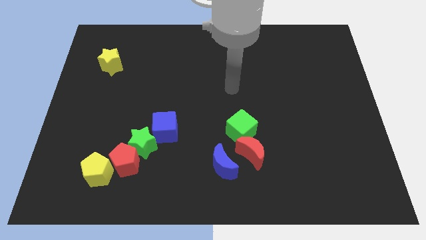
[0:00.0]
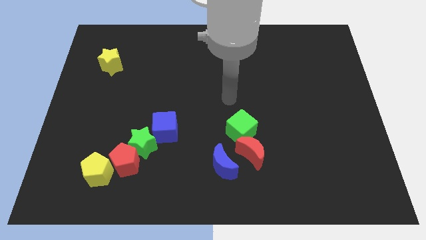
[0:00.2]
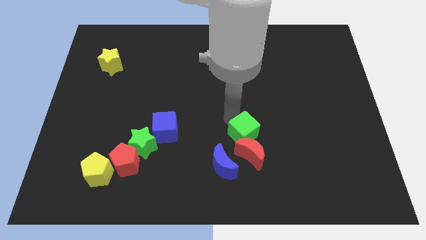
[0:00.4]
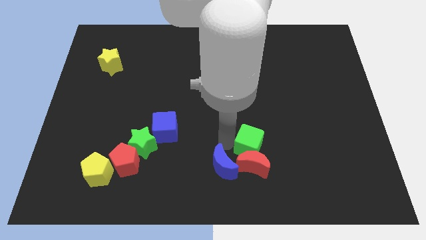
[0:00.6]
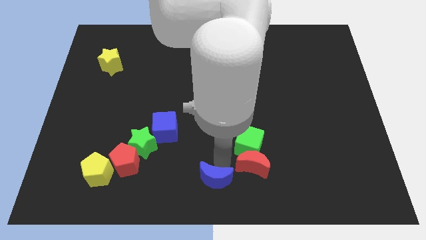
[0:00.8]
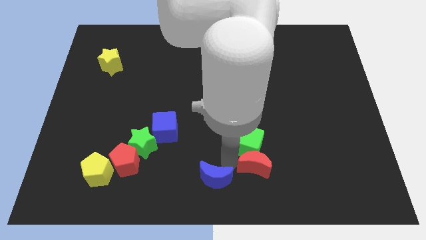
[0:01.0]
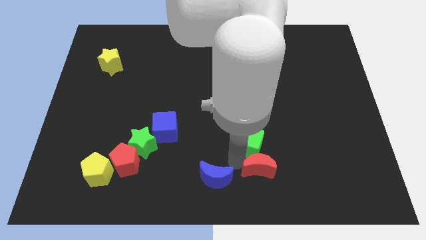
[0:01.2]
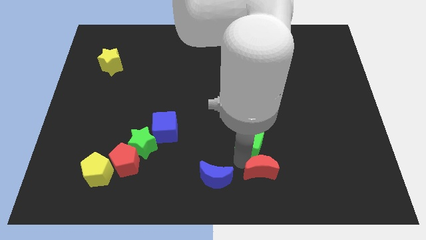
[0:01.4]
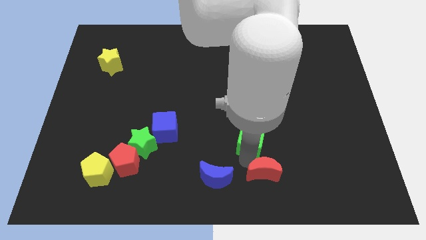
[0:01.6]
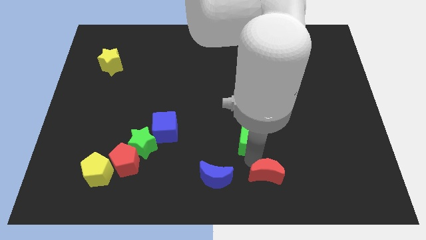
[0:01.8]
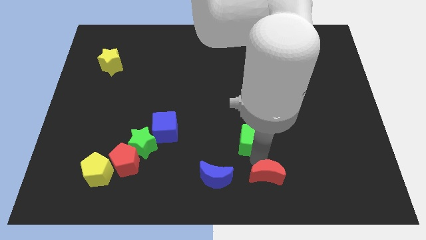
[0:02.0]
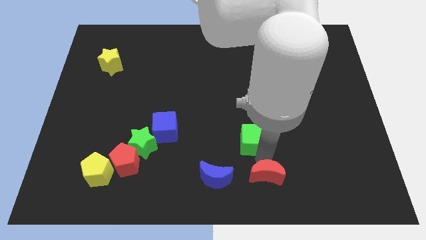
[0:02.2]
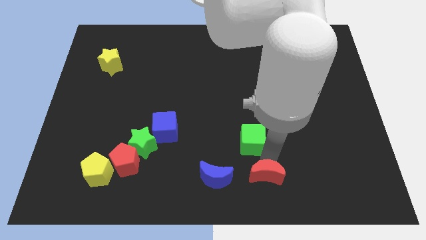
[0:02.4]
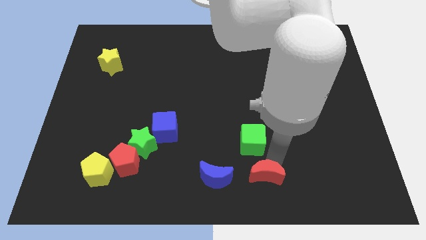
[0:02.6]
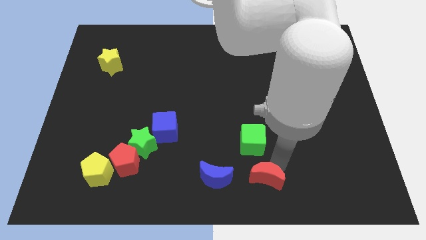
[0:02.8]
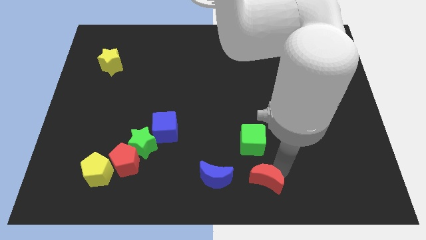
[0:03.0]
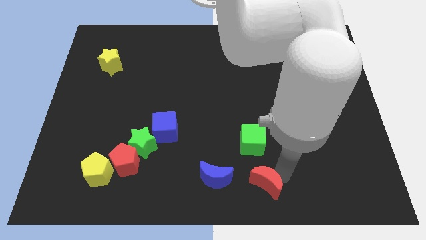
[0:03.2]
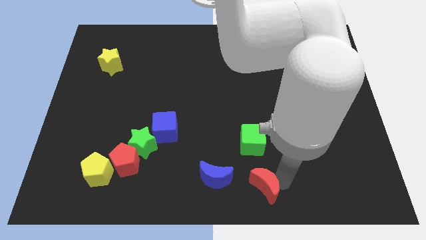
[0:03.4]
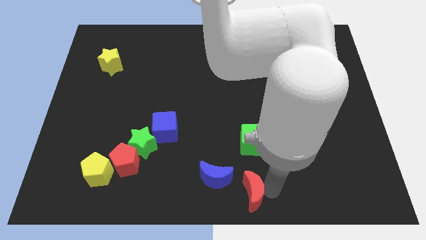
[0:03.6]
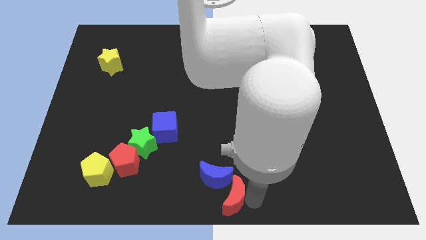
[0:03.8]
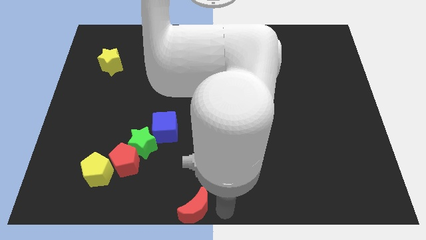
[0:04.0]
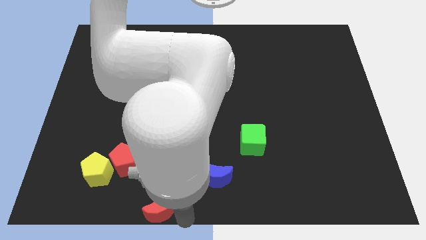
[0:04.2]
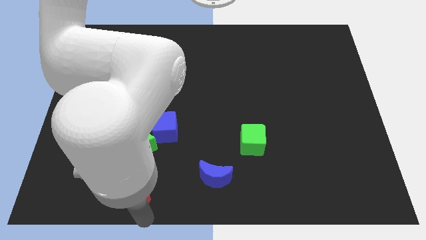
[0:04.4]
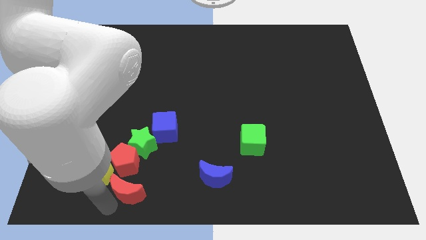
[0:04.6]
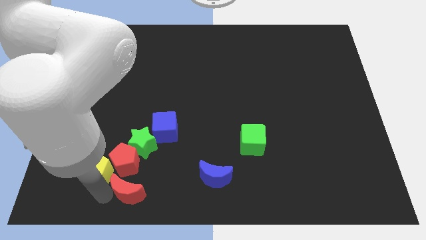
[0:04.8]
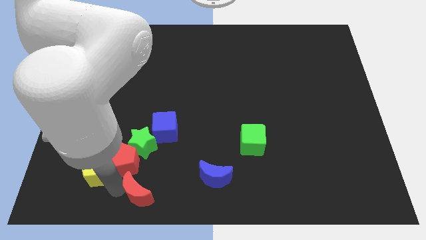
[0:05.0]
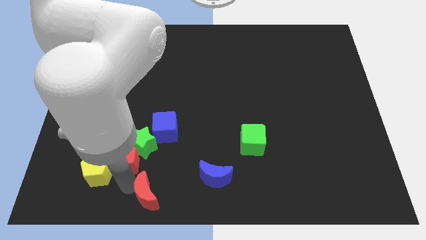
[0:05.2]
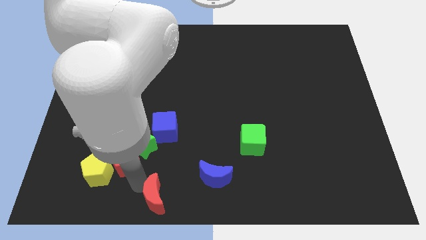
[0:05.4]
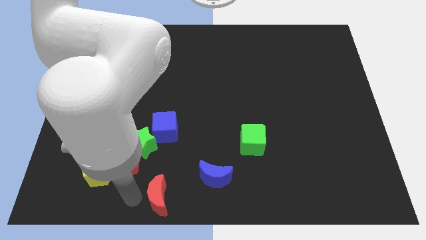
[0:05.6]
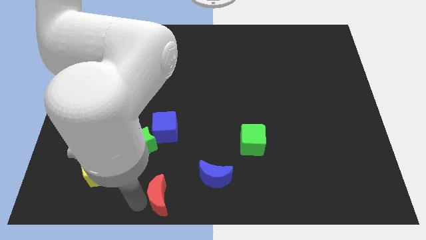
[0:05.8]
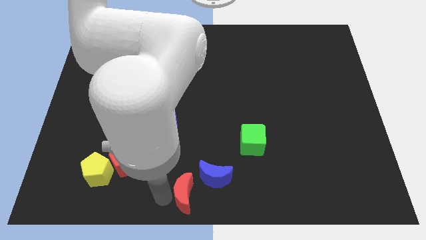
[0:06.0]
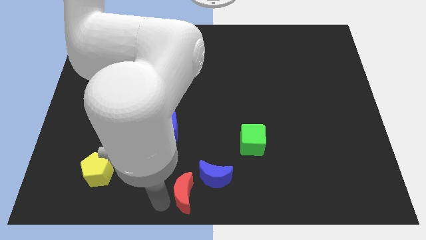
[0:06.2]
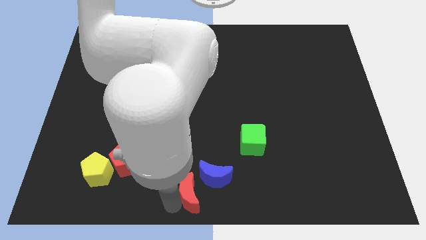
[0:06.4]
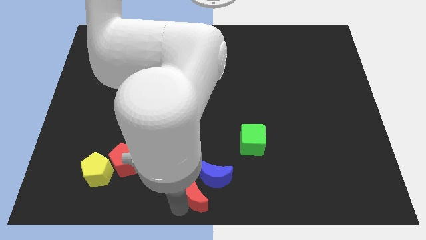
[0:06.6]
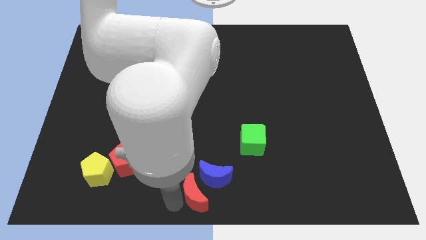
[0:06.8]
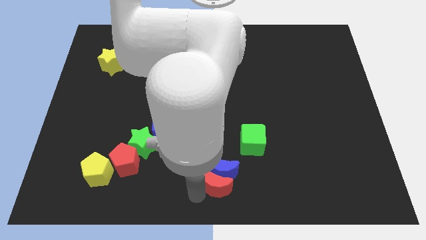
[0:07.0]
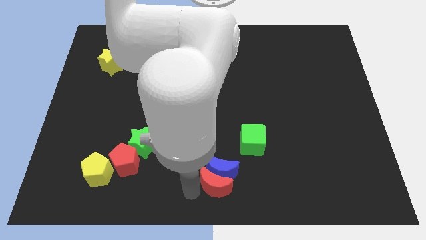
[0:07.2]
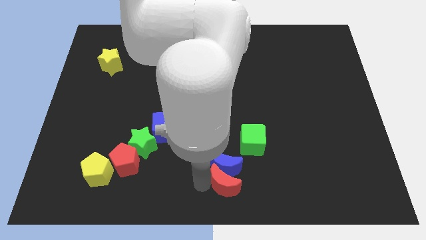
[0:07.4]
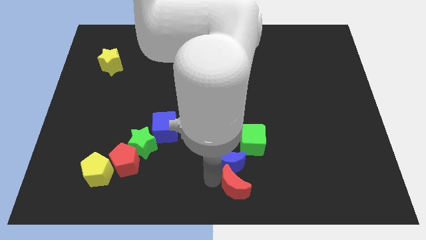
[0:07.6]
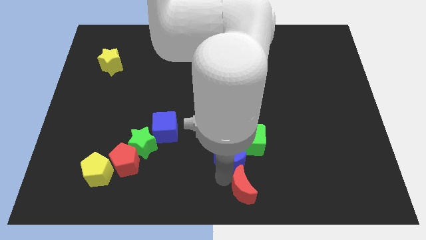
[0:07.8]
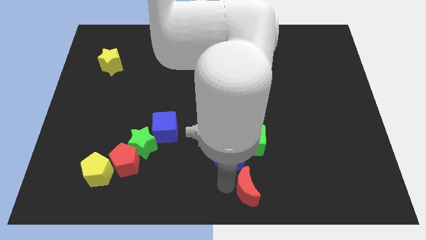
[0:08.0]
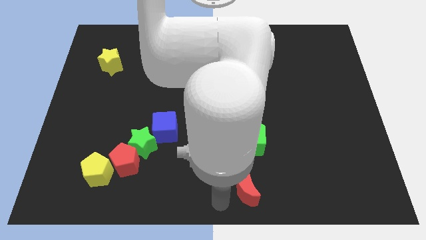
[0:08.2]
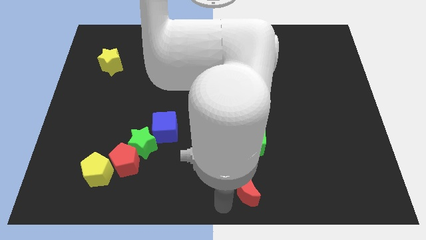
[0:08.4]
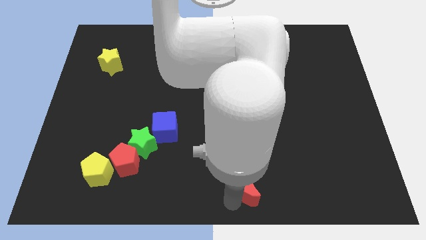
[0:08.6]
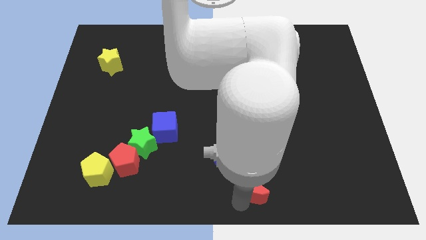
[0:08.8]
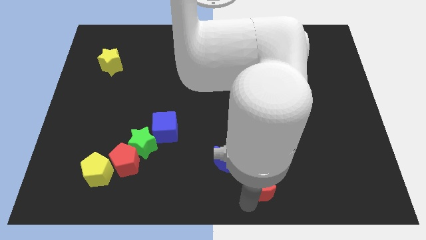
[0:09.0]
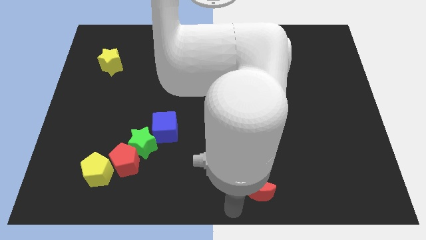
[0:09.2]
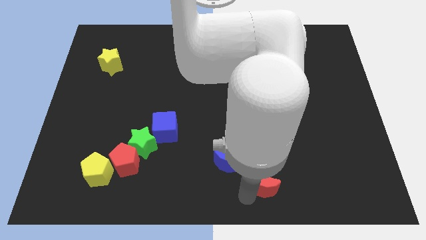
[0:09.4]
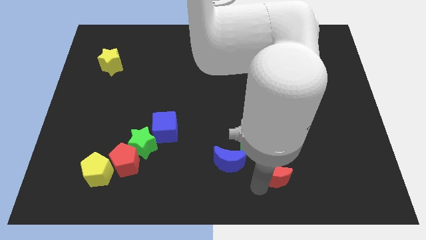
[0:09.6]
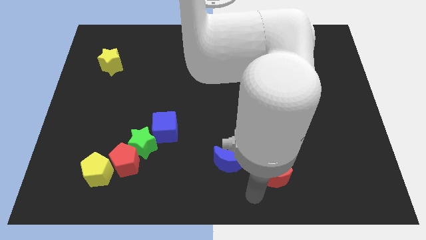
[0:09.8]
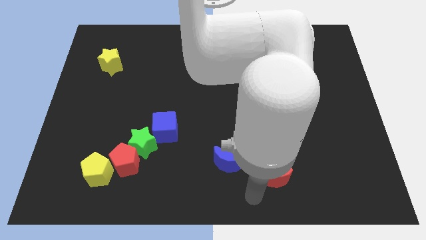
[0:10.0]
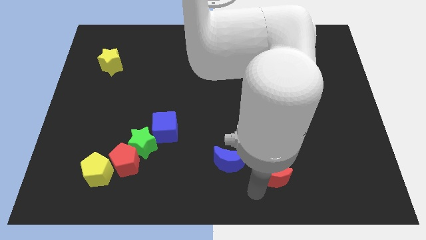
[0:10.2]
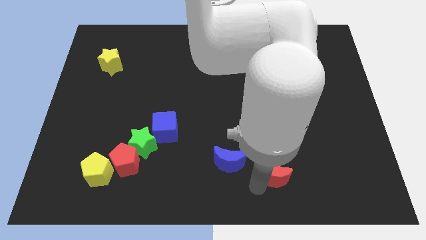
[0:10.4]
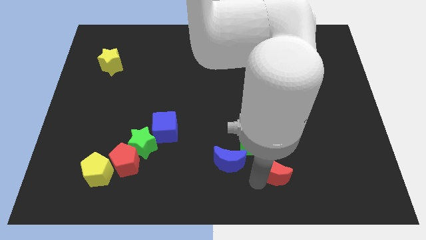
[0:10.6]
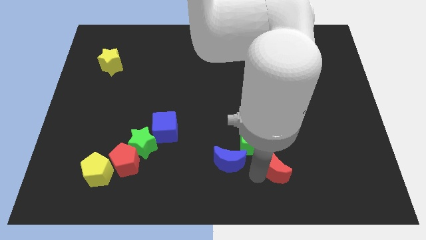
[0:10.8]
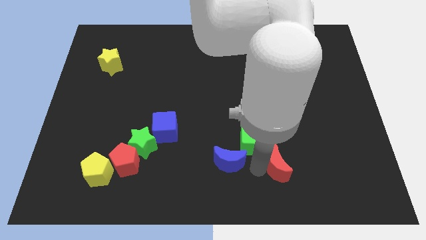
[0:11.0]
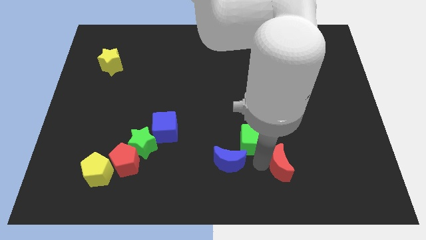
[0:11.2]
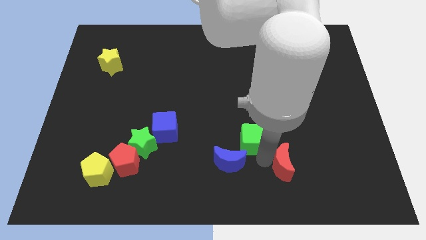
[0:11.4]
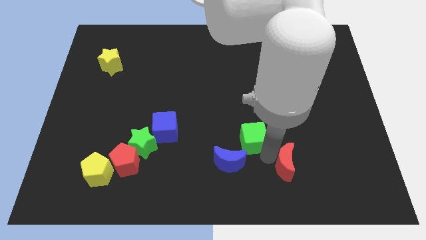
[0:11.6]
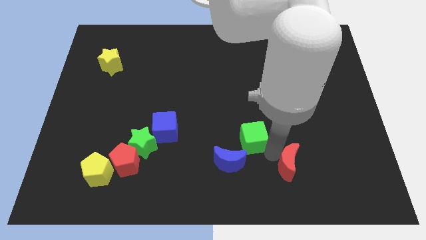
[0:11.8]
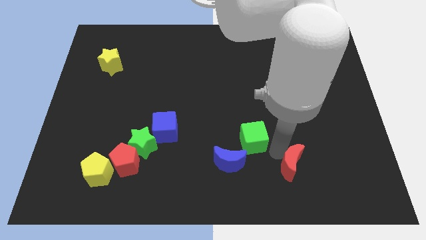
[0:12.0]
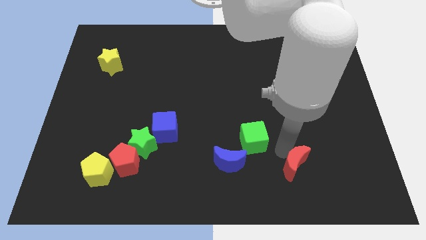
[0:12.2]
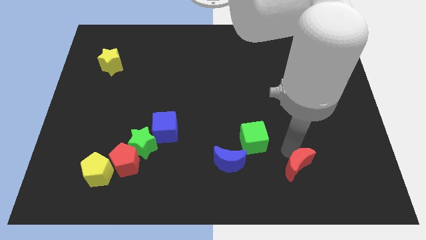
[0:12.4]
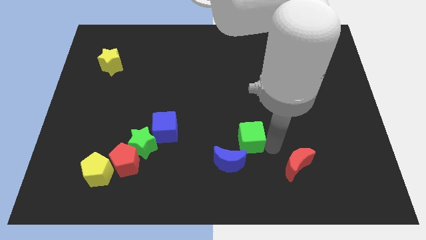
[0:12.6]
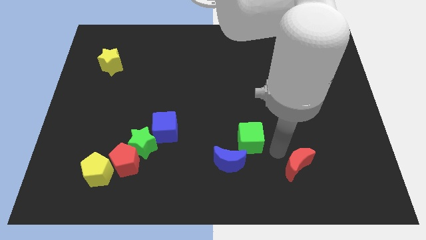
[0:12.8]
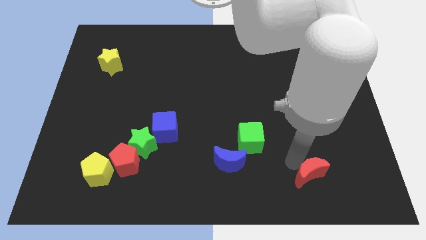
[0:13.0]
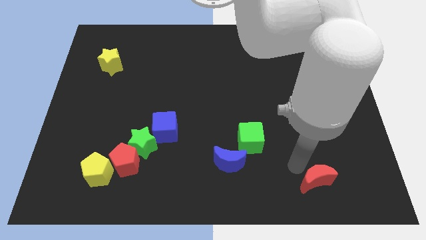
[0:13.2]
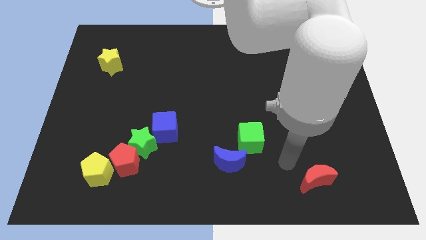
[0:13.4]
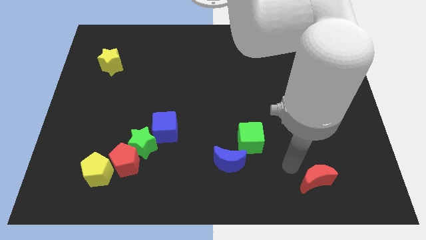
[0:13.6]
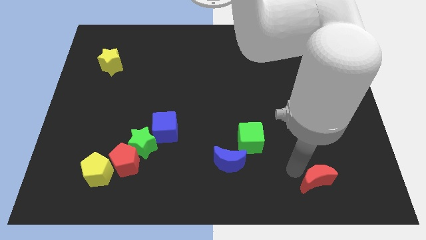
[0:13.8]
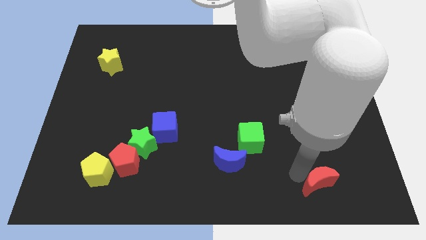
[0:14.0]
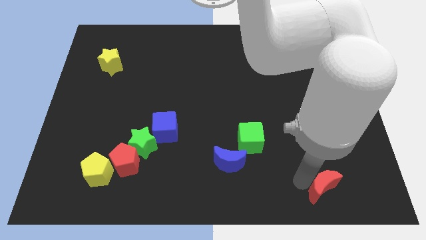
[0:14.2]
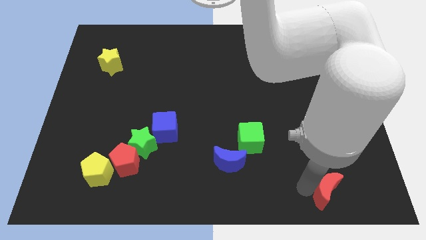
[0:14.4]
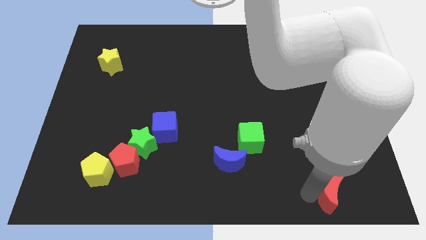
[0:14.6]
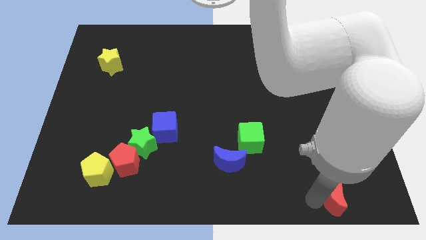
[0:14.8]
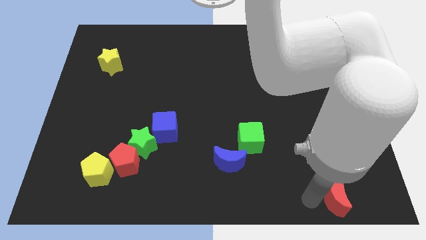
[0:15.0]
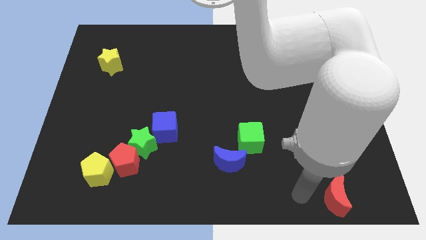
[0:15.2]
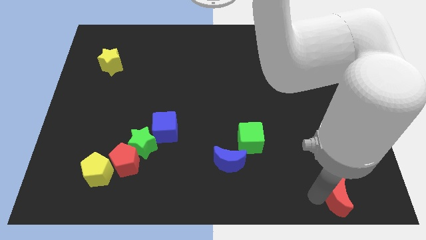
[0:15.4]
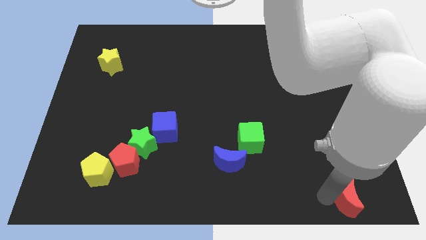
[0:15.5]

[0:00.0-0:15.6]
move the red moon to the bottom right of the board
